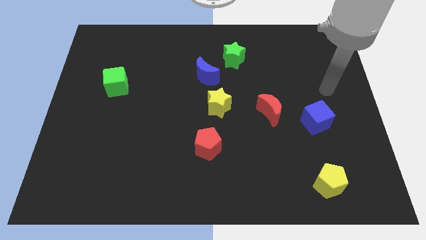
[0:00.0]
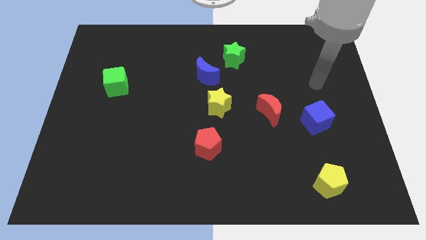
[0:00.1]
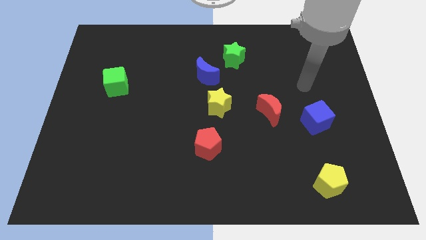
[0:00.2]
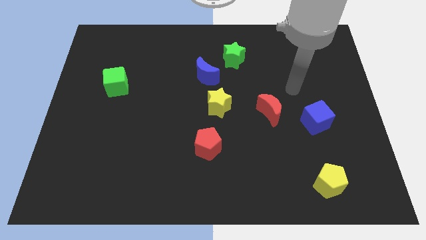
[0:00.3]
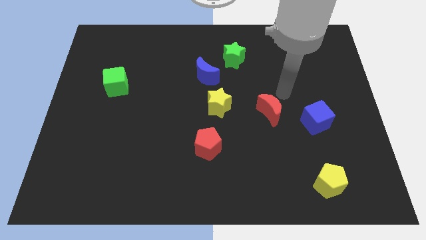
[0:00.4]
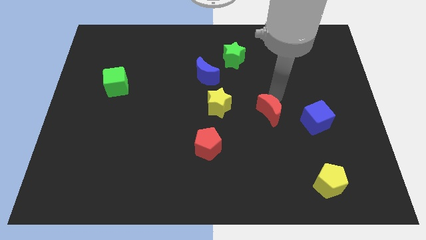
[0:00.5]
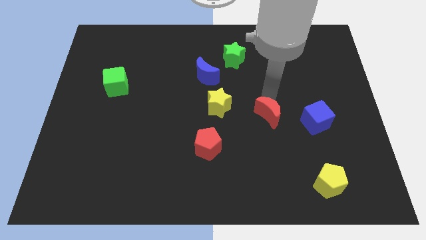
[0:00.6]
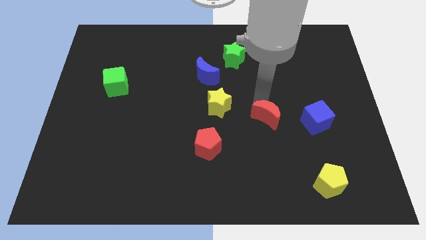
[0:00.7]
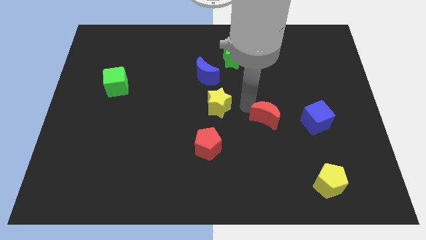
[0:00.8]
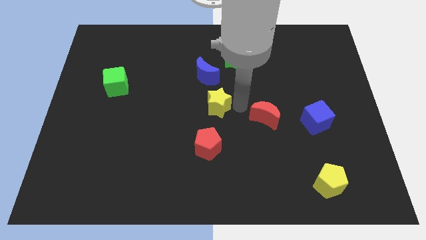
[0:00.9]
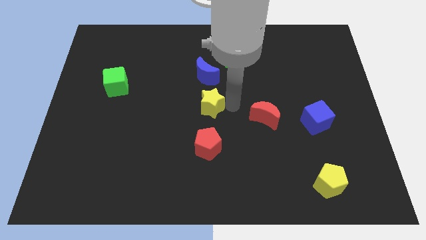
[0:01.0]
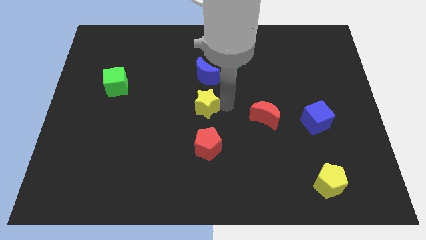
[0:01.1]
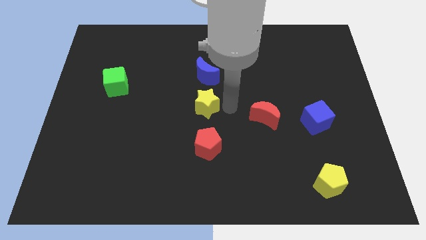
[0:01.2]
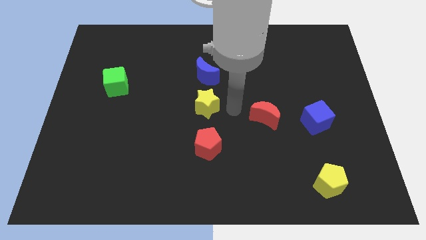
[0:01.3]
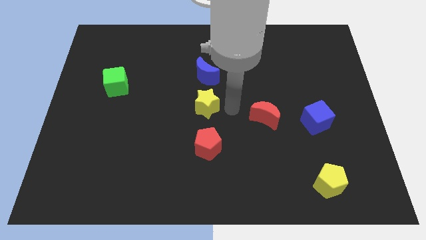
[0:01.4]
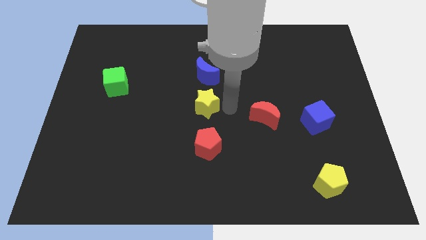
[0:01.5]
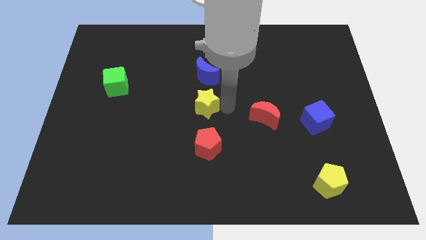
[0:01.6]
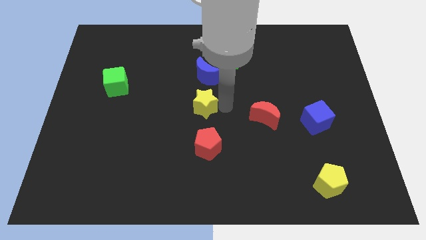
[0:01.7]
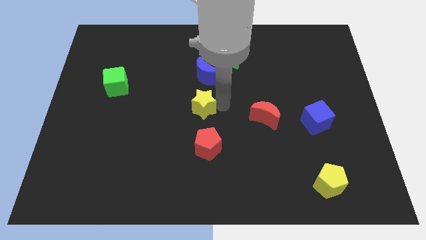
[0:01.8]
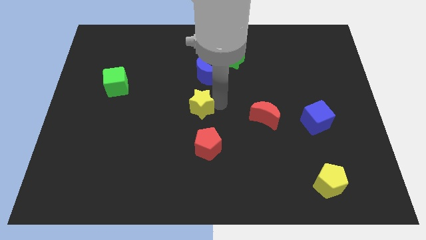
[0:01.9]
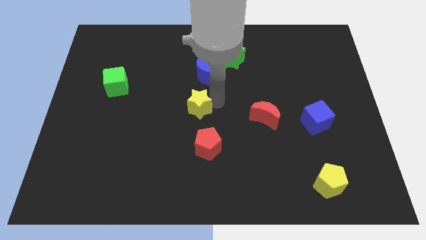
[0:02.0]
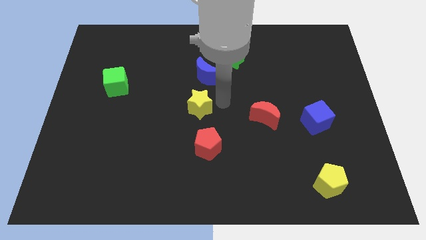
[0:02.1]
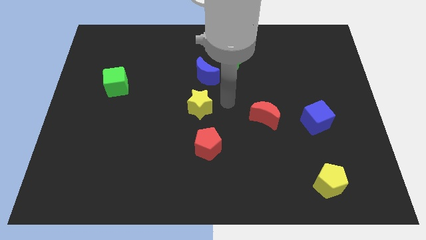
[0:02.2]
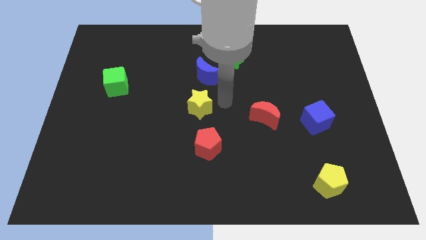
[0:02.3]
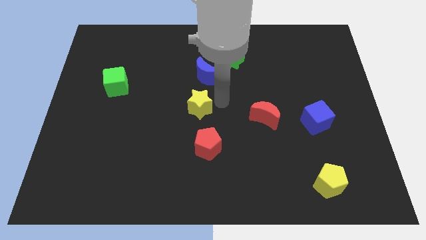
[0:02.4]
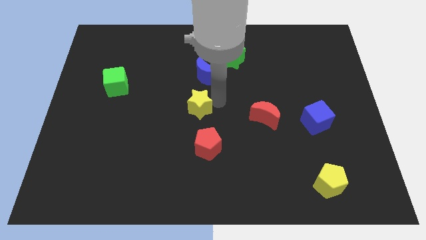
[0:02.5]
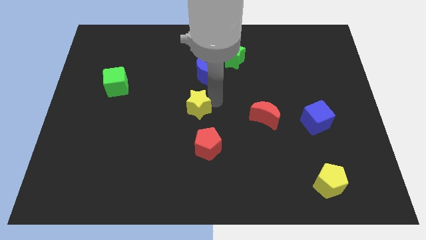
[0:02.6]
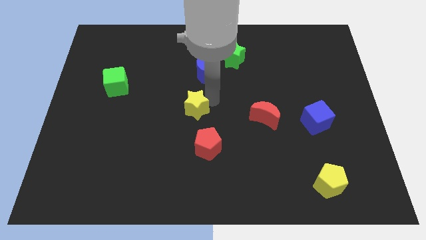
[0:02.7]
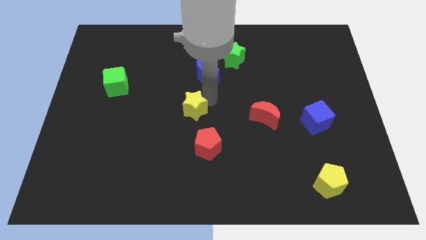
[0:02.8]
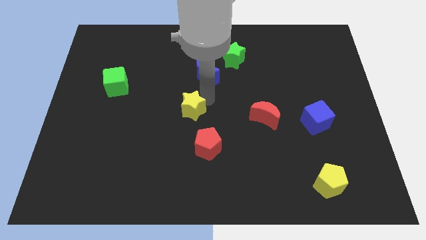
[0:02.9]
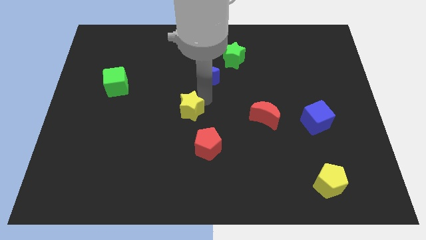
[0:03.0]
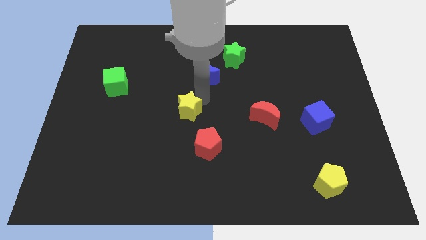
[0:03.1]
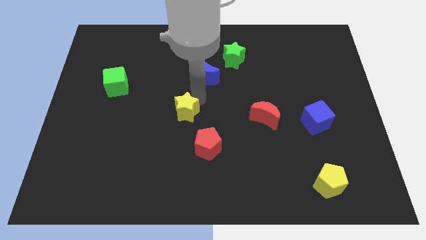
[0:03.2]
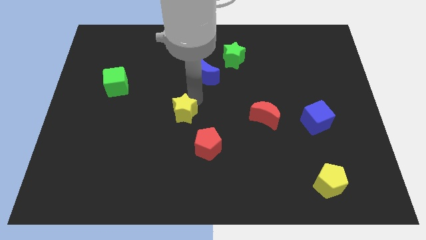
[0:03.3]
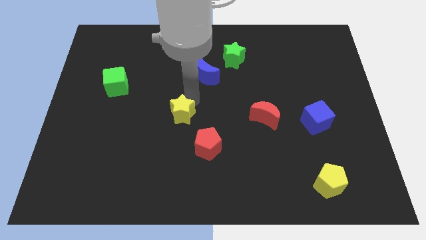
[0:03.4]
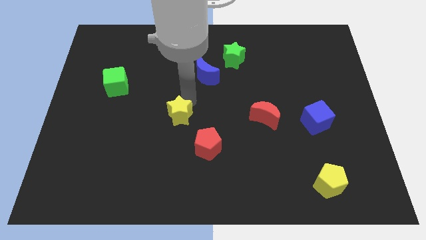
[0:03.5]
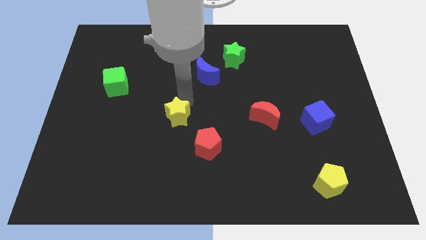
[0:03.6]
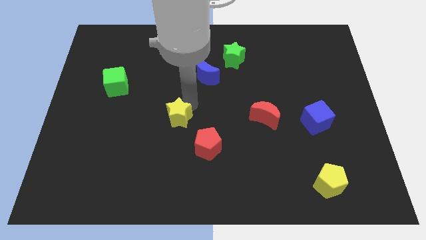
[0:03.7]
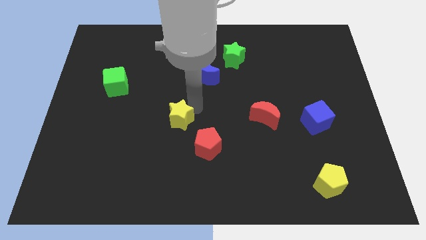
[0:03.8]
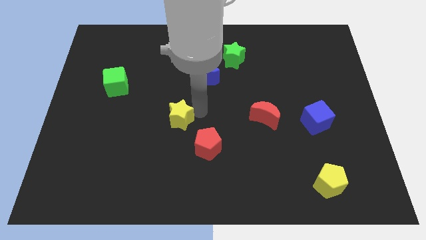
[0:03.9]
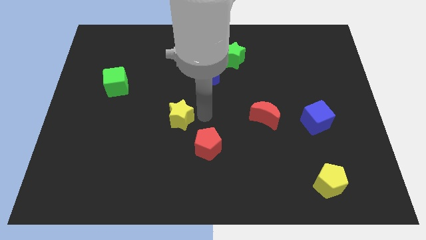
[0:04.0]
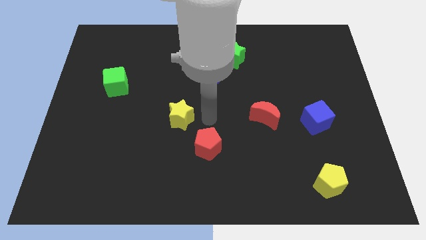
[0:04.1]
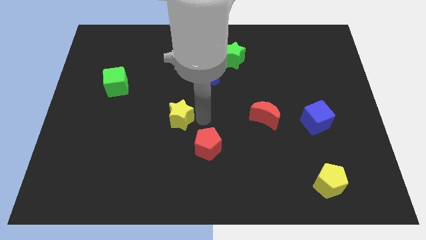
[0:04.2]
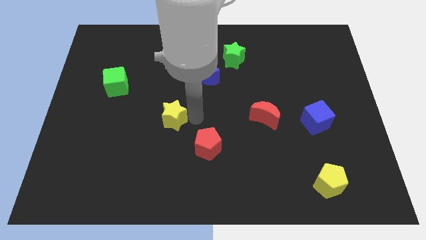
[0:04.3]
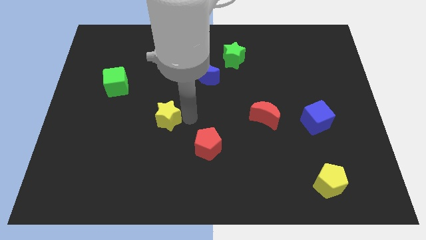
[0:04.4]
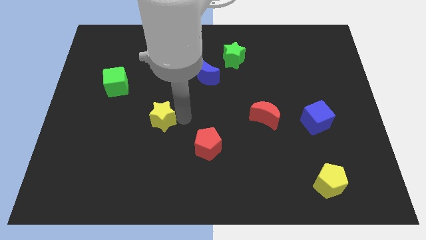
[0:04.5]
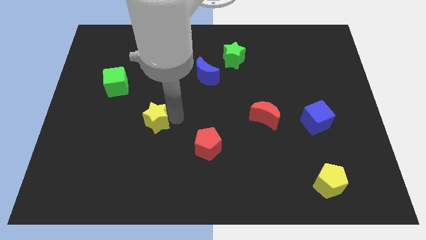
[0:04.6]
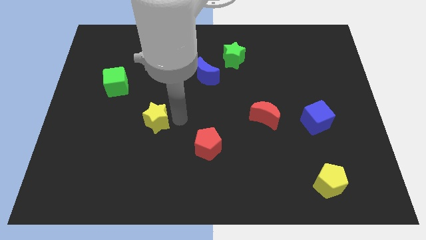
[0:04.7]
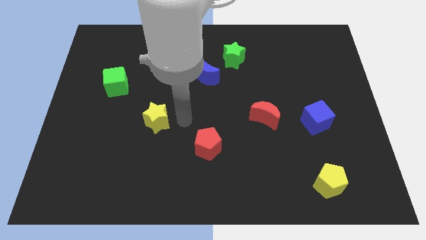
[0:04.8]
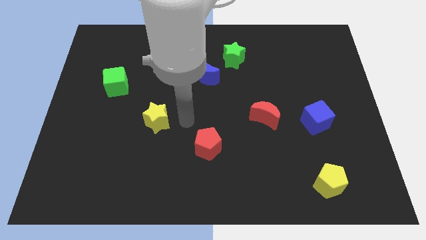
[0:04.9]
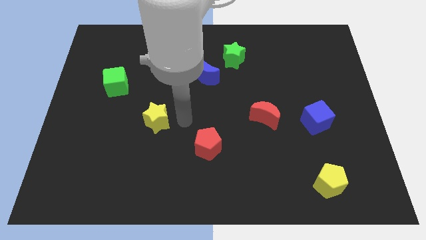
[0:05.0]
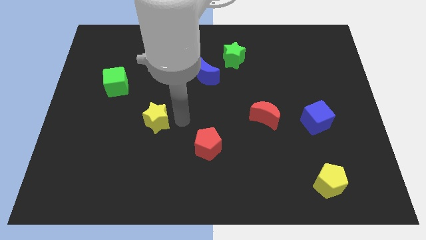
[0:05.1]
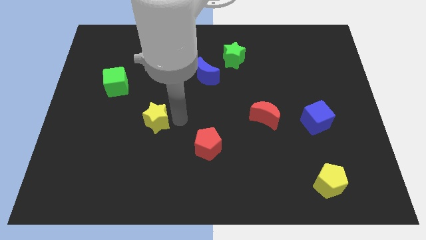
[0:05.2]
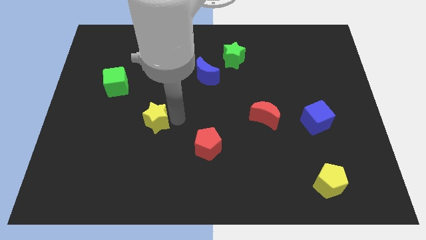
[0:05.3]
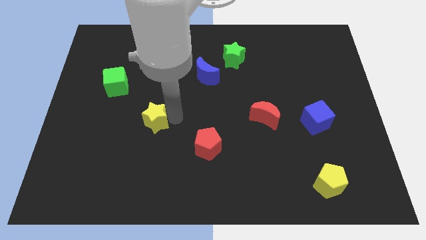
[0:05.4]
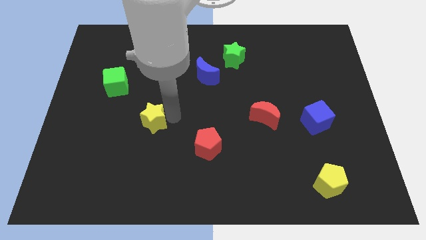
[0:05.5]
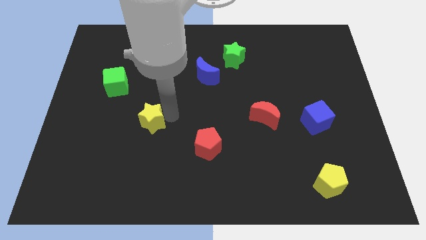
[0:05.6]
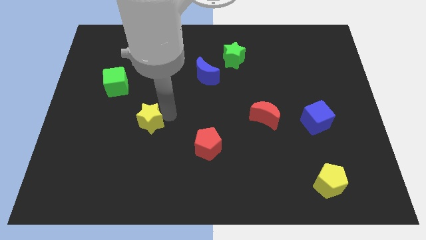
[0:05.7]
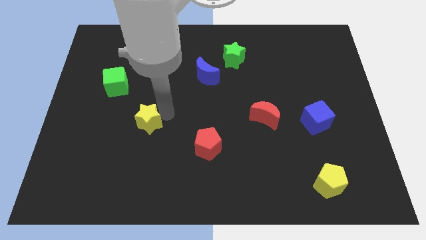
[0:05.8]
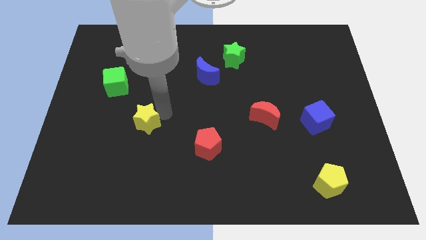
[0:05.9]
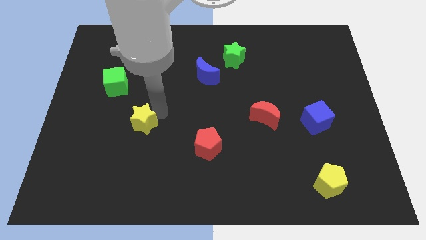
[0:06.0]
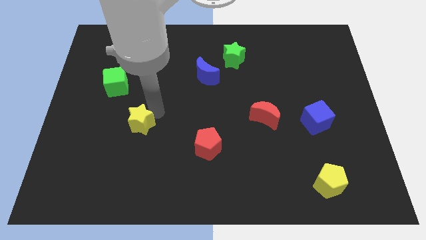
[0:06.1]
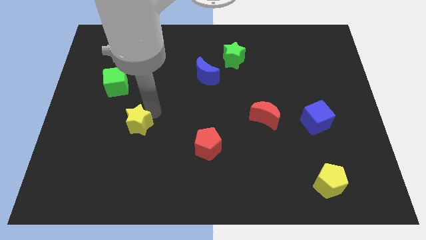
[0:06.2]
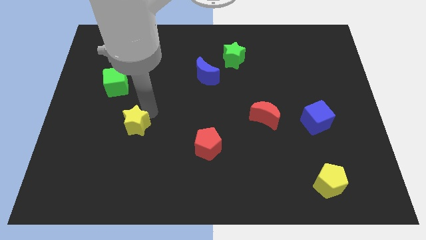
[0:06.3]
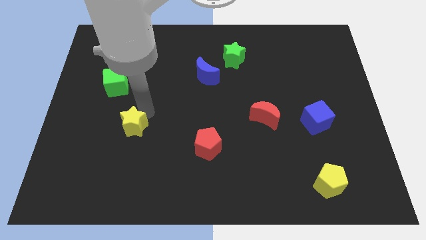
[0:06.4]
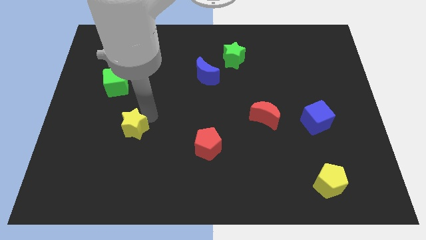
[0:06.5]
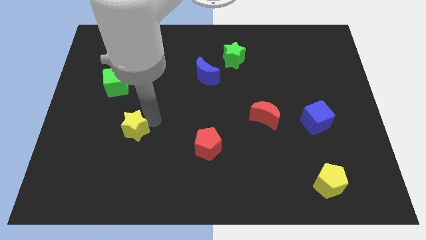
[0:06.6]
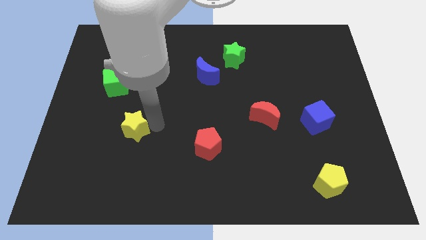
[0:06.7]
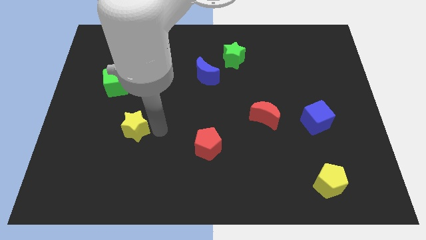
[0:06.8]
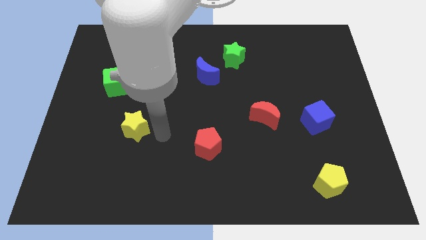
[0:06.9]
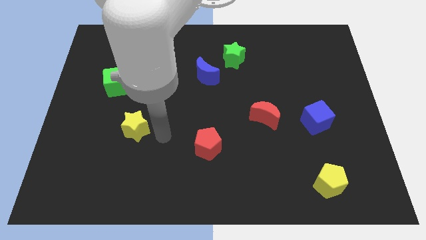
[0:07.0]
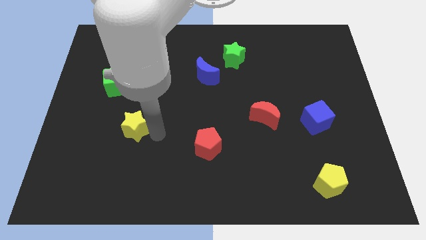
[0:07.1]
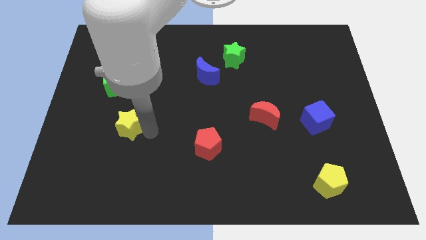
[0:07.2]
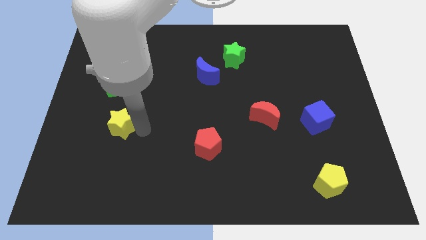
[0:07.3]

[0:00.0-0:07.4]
put the yellow star to the bottom side of the green cube
